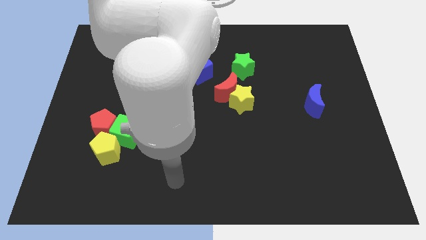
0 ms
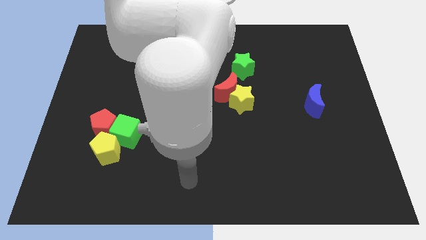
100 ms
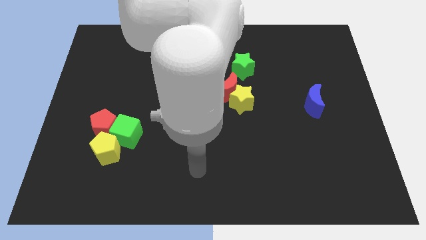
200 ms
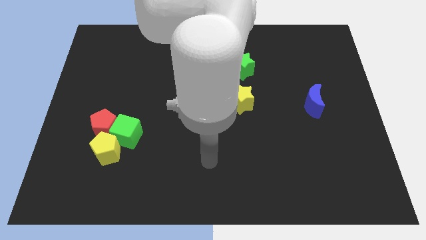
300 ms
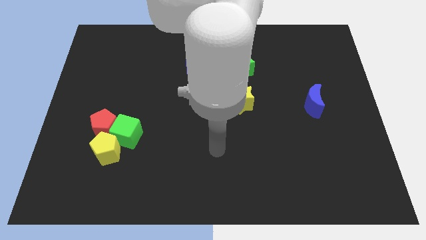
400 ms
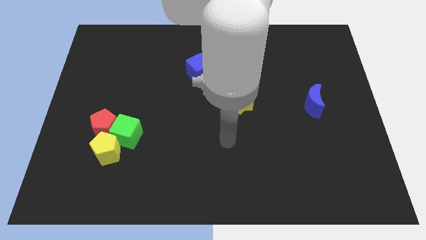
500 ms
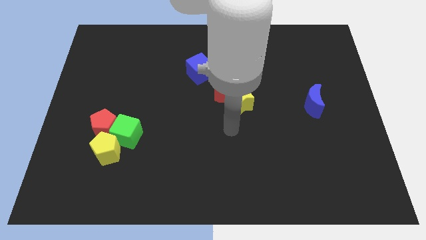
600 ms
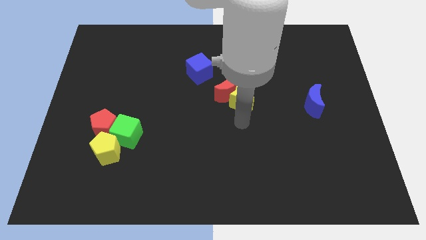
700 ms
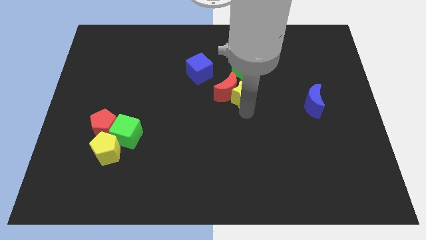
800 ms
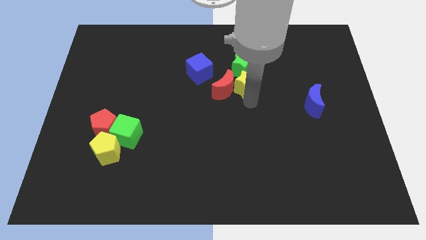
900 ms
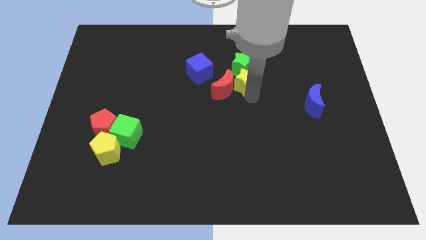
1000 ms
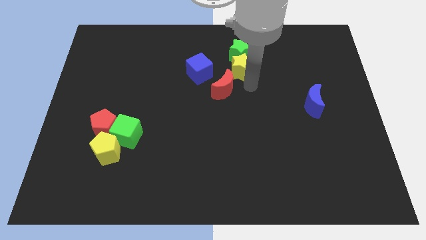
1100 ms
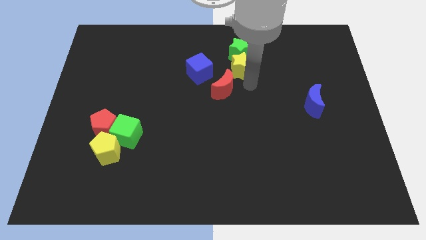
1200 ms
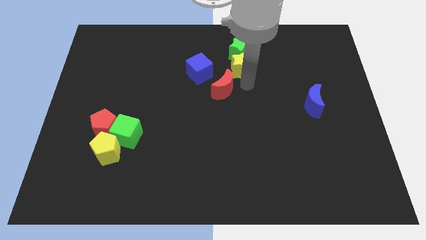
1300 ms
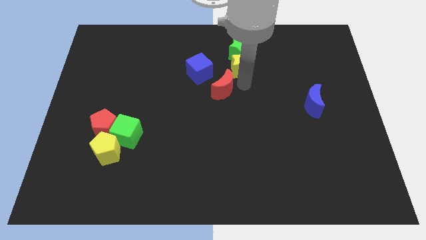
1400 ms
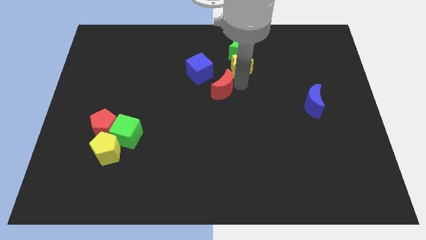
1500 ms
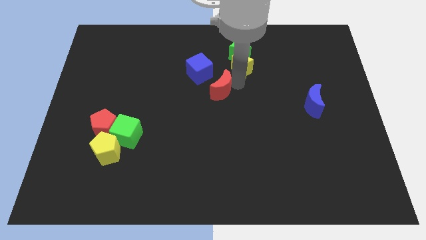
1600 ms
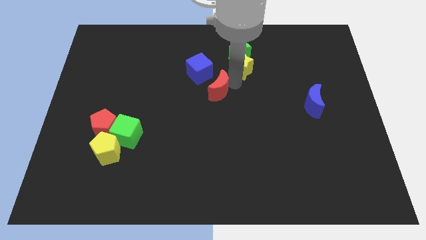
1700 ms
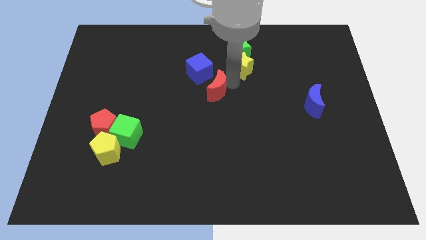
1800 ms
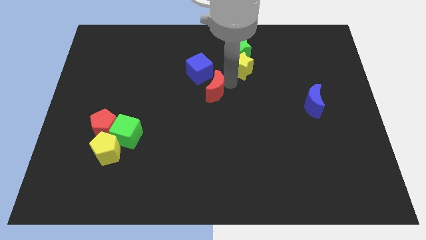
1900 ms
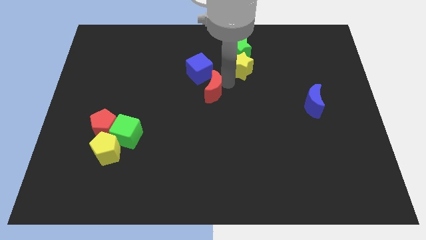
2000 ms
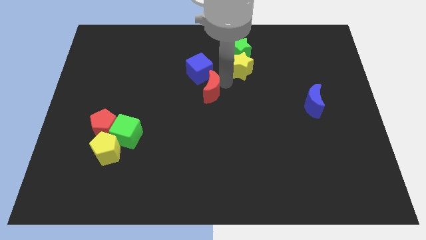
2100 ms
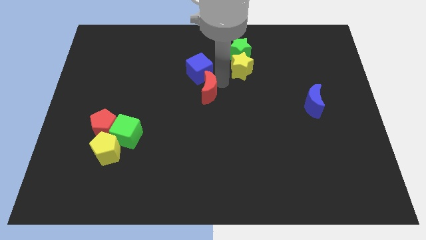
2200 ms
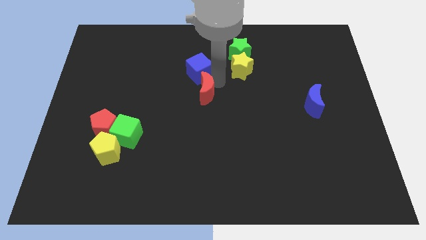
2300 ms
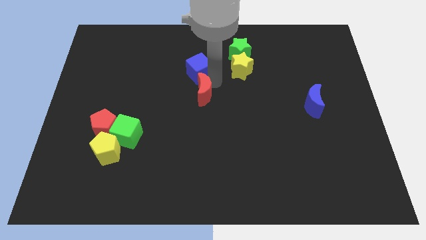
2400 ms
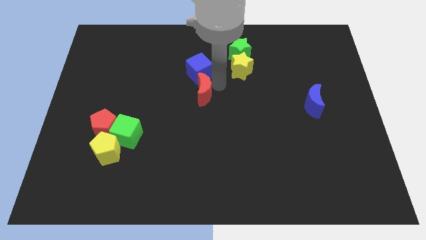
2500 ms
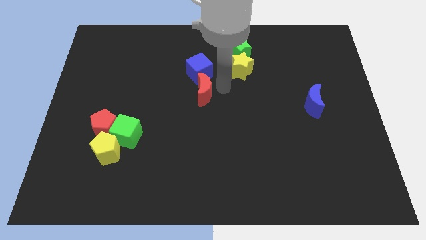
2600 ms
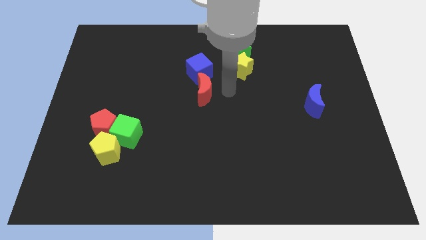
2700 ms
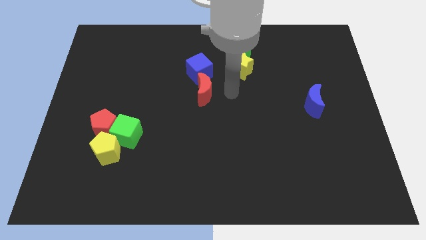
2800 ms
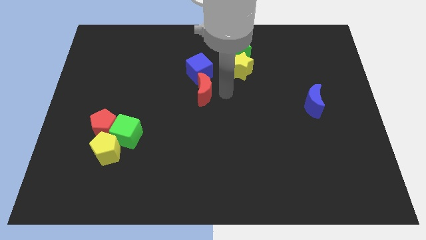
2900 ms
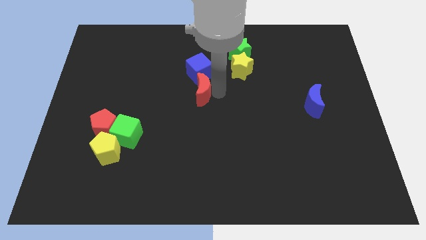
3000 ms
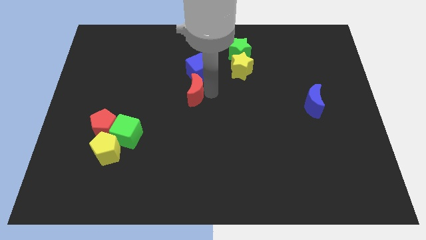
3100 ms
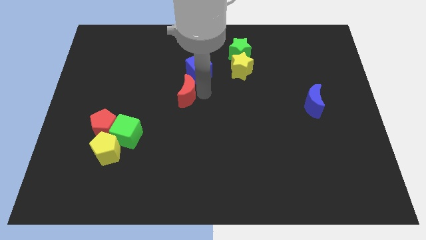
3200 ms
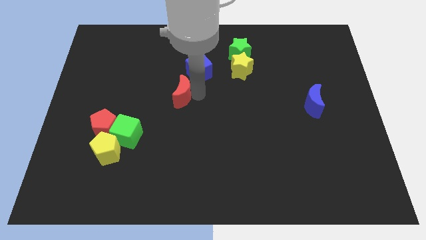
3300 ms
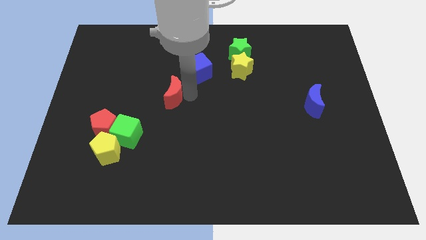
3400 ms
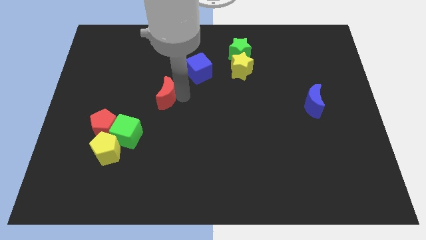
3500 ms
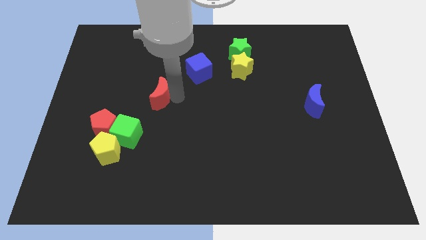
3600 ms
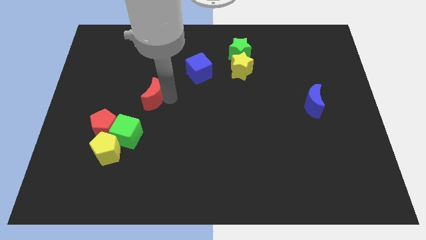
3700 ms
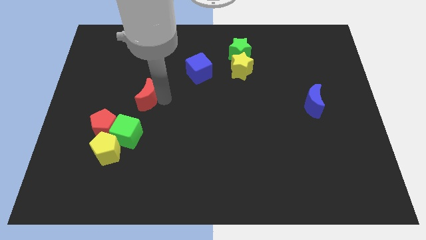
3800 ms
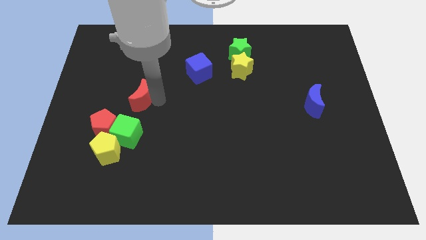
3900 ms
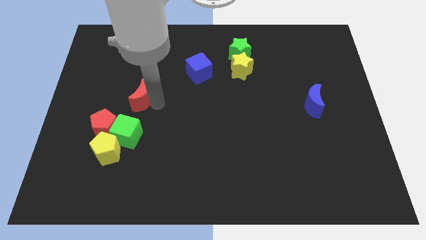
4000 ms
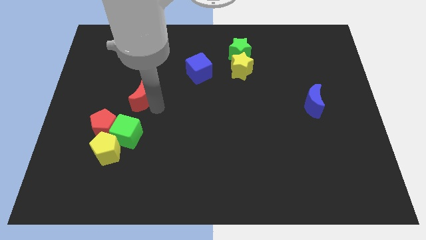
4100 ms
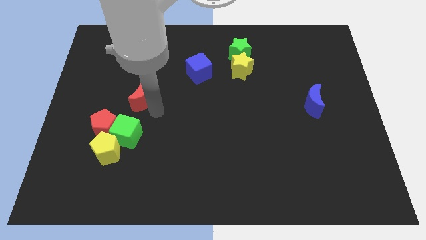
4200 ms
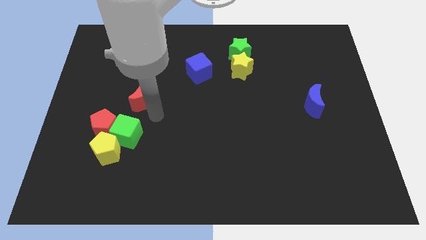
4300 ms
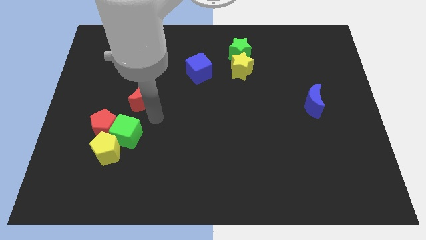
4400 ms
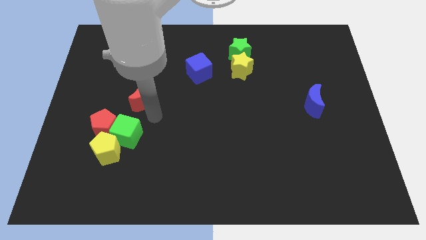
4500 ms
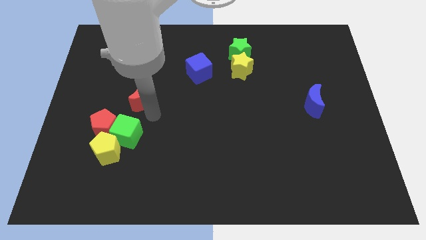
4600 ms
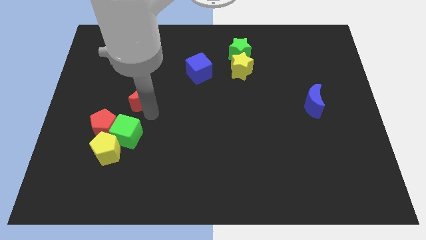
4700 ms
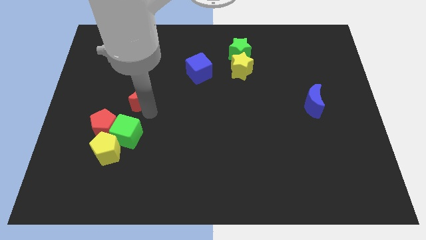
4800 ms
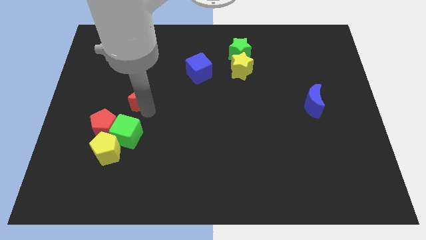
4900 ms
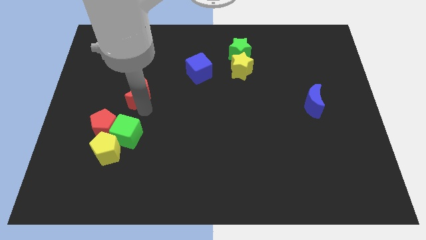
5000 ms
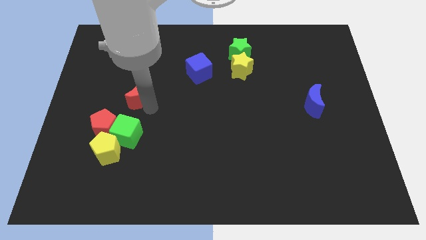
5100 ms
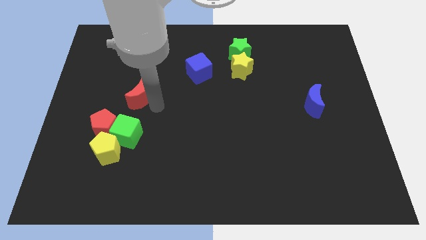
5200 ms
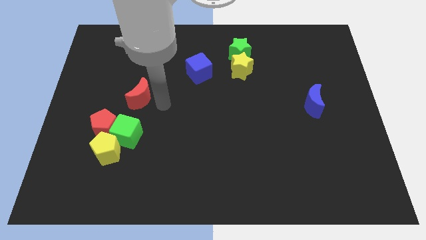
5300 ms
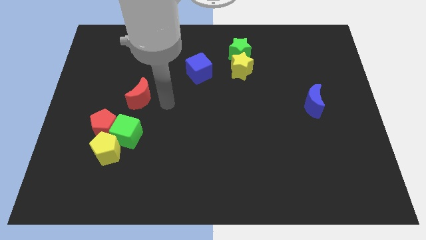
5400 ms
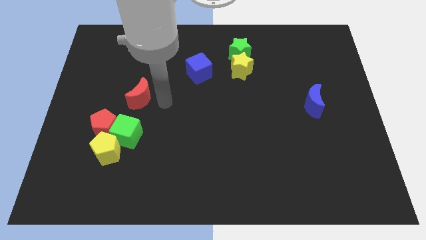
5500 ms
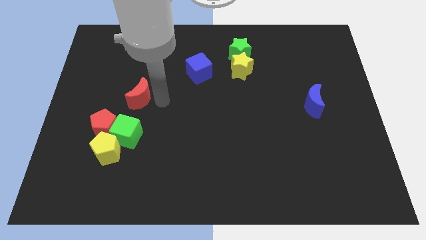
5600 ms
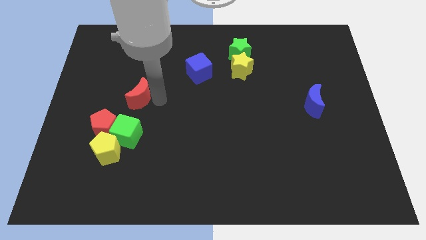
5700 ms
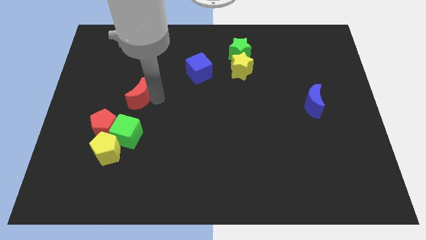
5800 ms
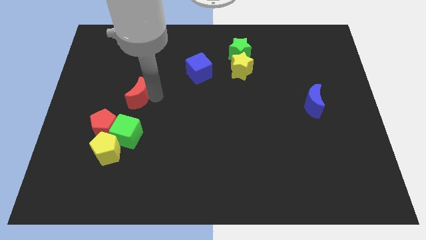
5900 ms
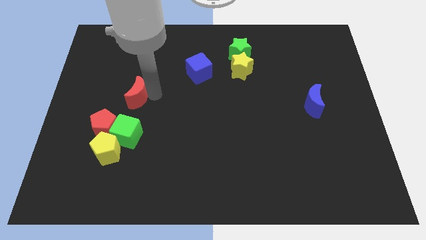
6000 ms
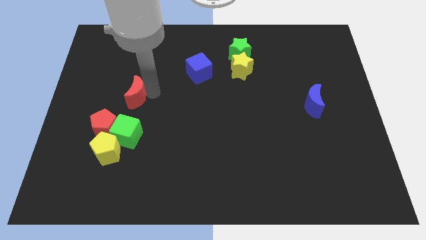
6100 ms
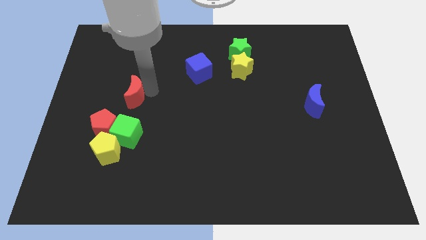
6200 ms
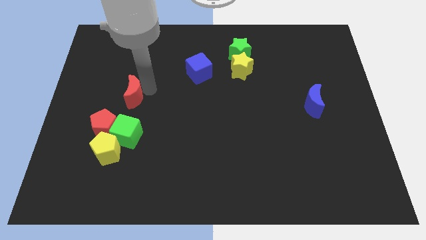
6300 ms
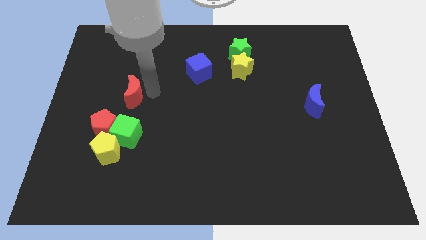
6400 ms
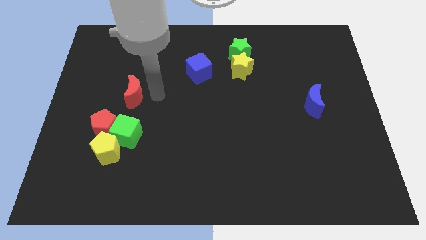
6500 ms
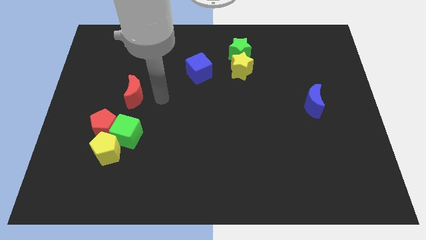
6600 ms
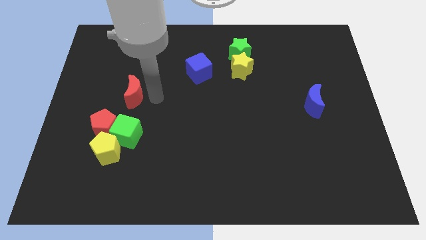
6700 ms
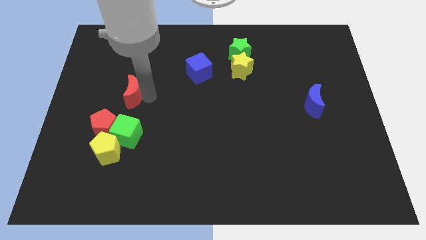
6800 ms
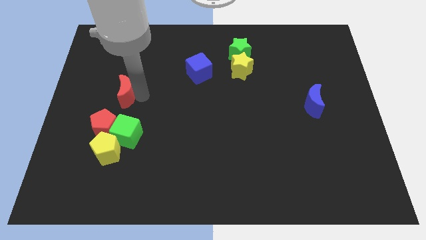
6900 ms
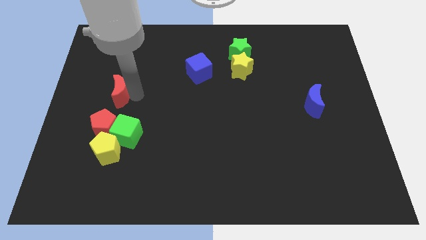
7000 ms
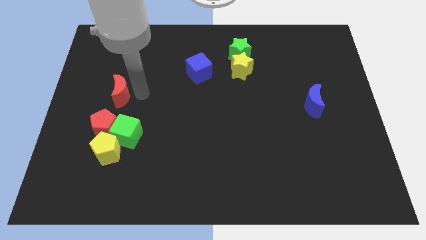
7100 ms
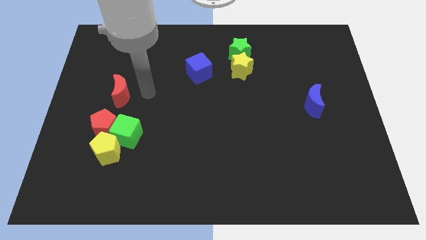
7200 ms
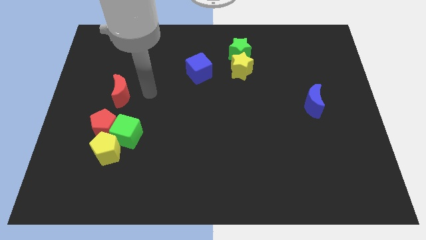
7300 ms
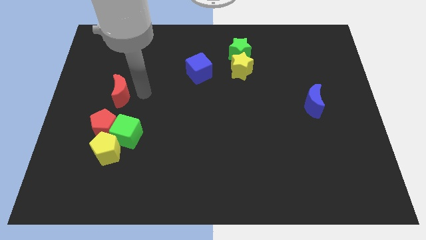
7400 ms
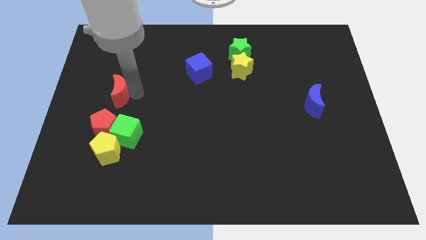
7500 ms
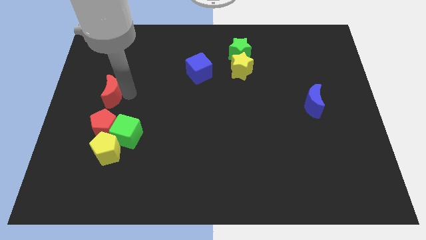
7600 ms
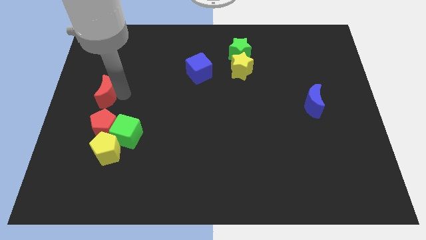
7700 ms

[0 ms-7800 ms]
push the red moon to the left side of the board
